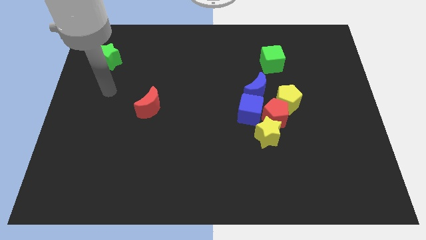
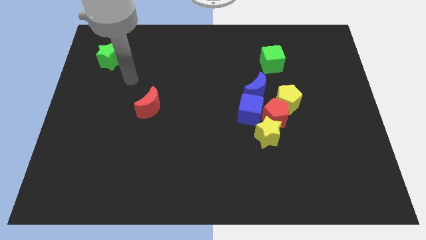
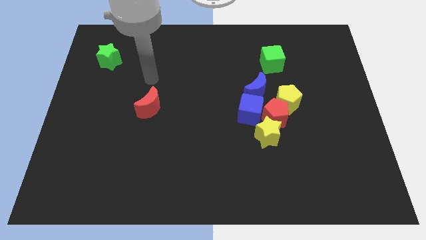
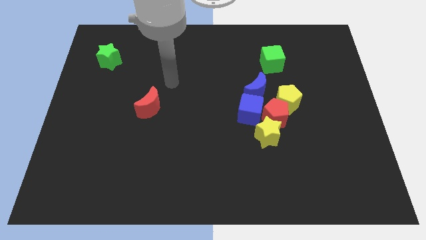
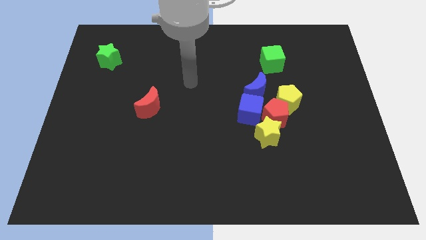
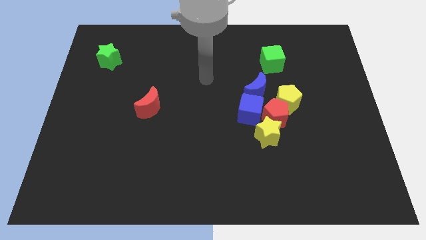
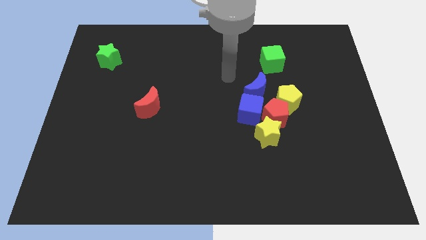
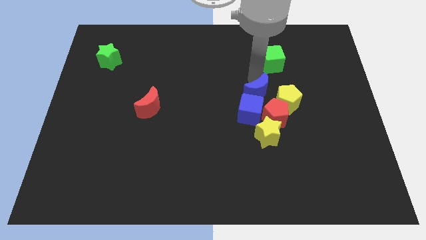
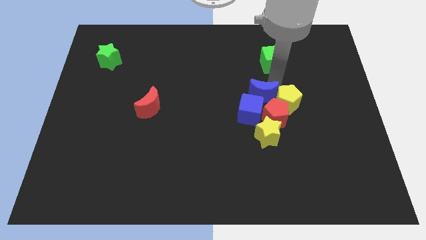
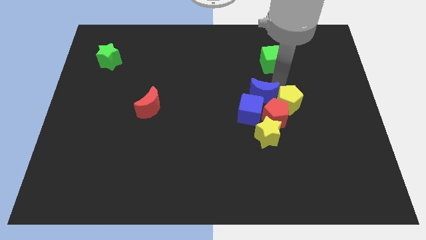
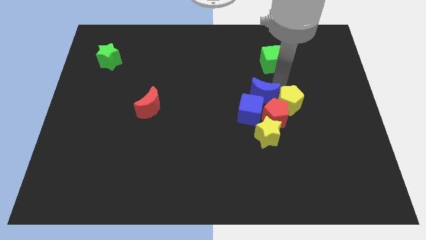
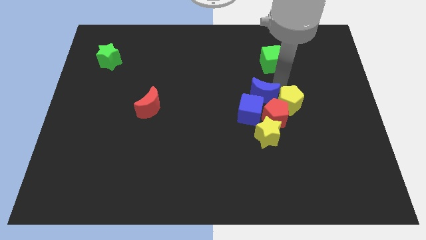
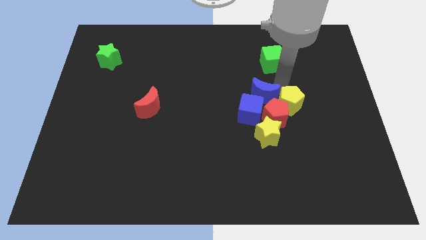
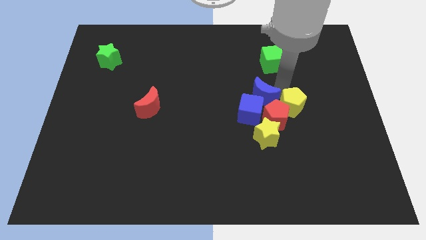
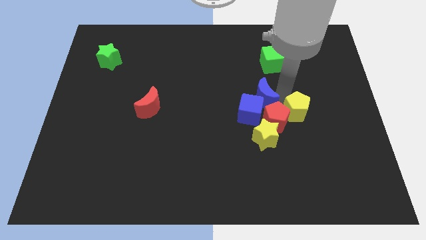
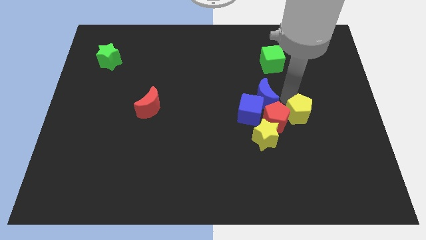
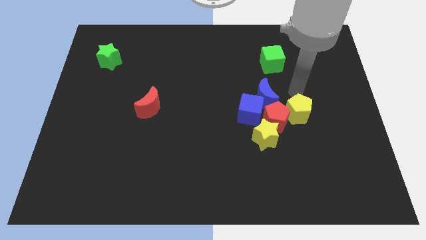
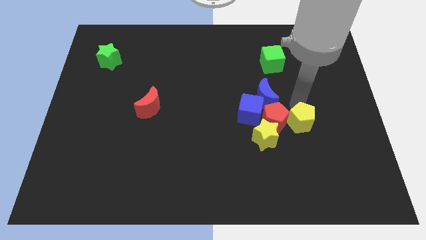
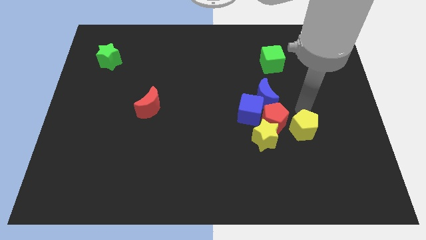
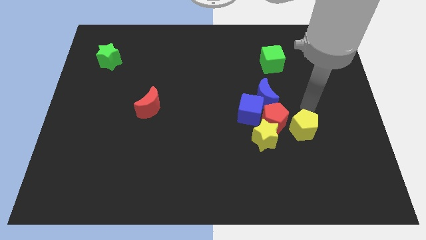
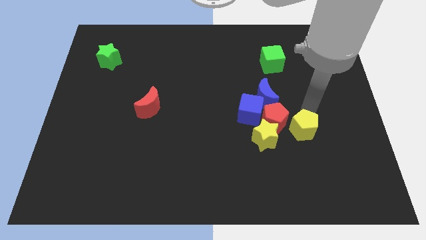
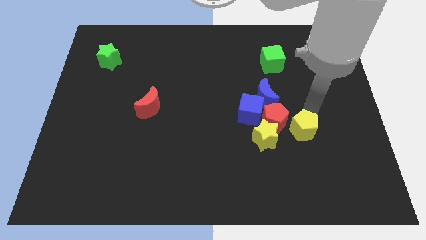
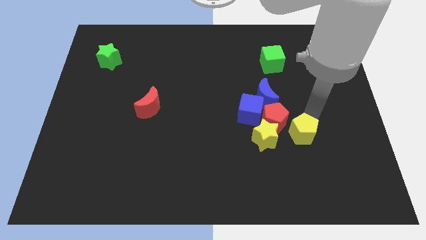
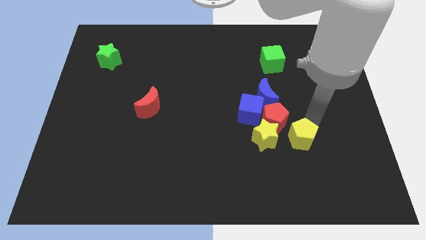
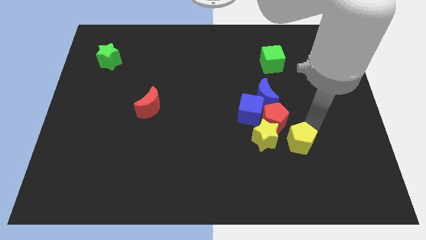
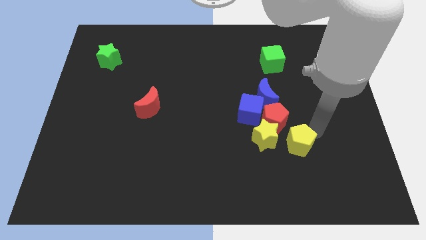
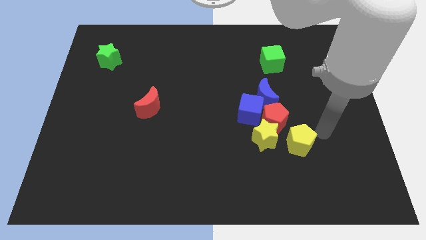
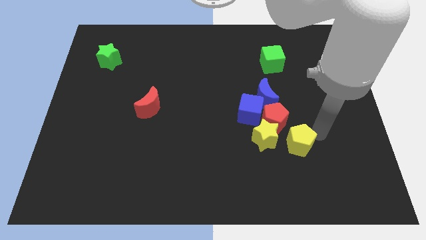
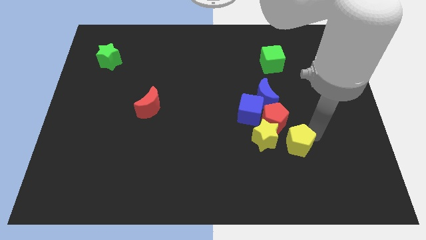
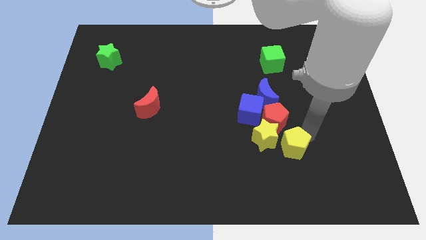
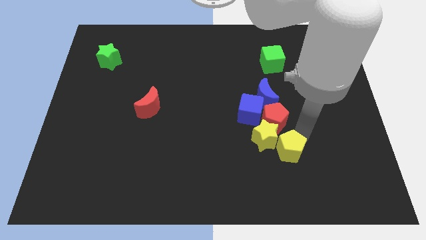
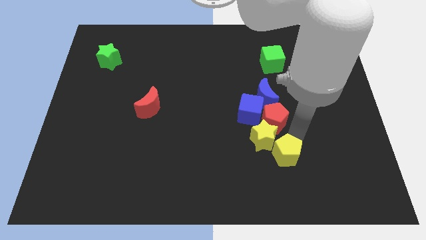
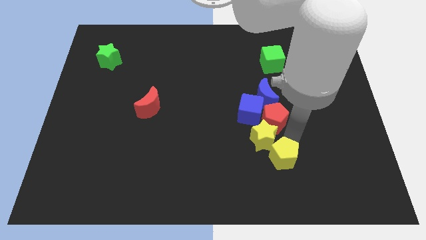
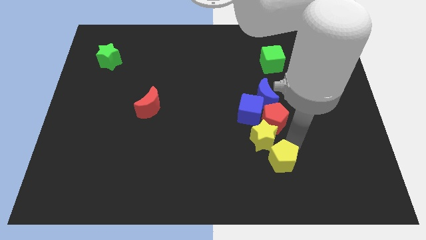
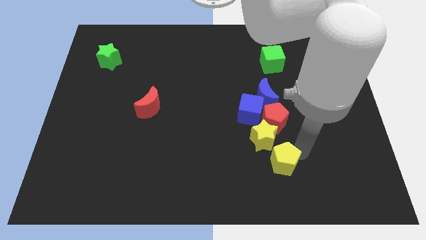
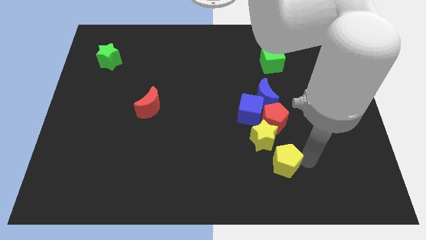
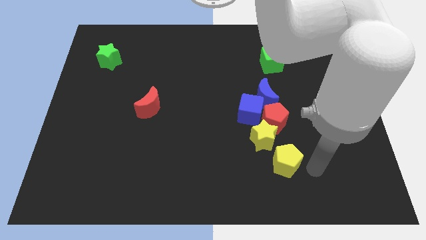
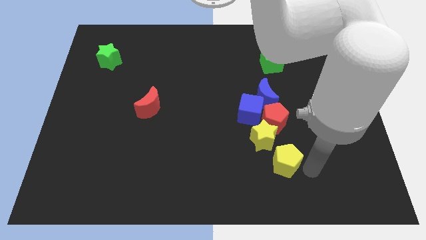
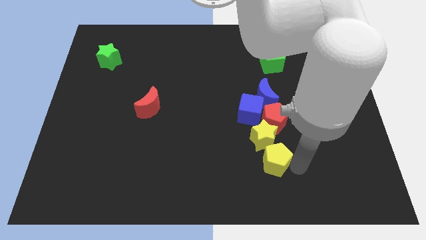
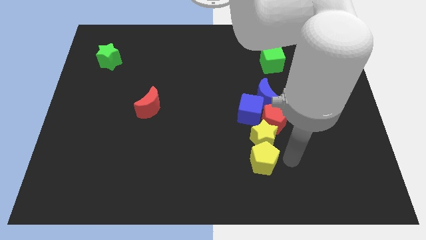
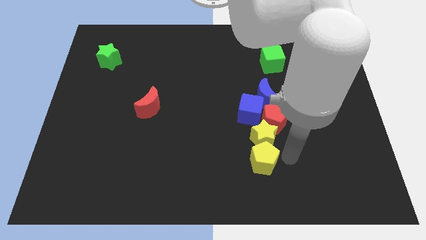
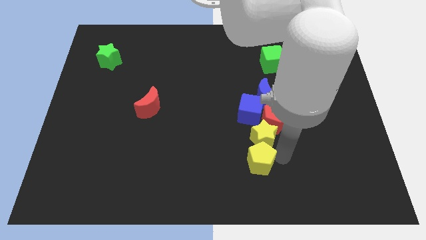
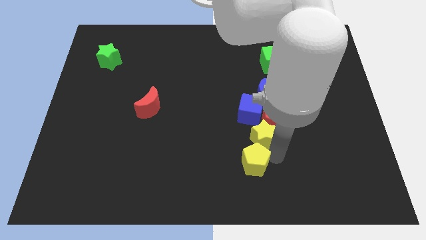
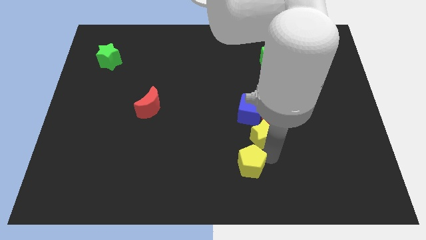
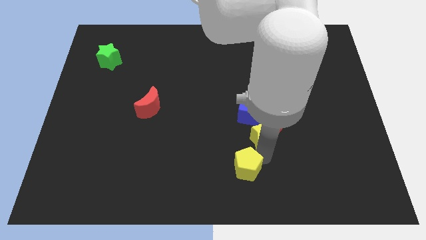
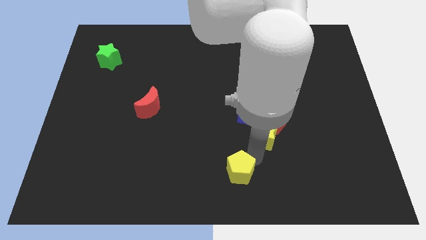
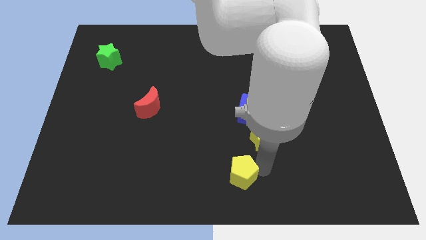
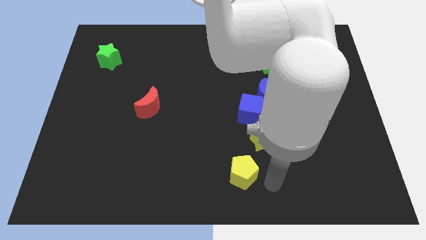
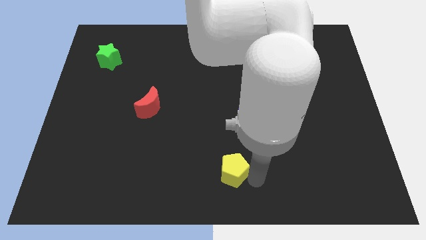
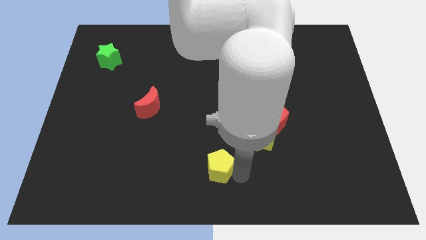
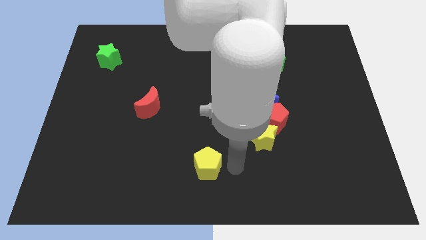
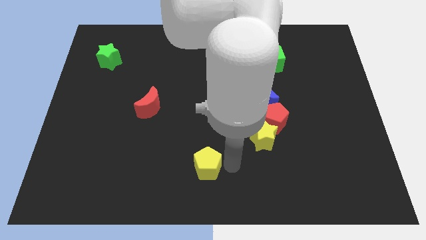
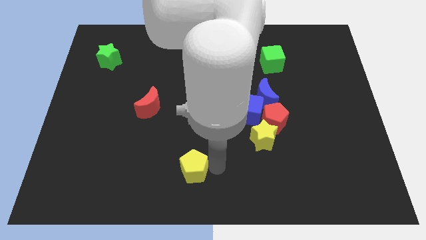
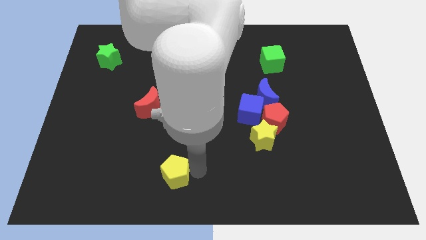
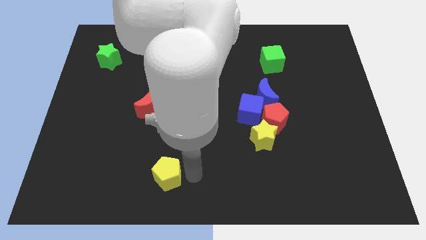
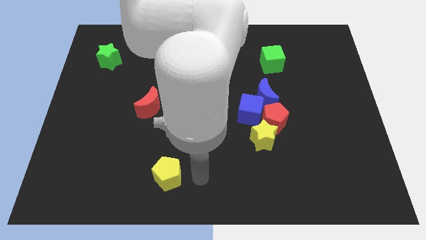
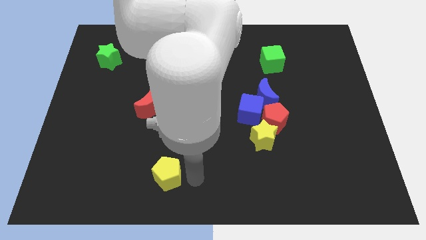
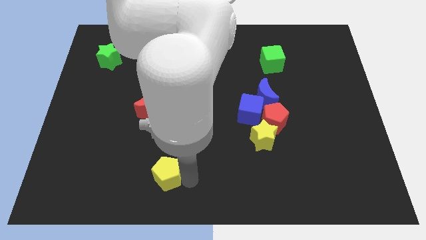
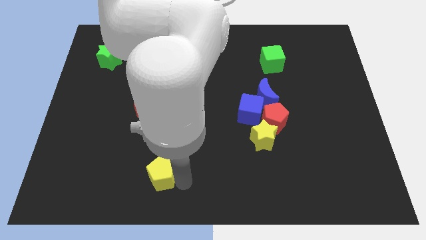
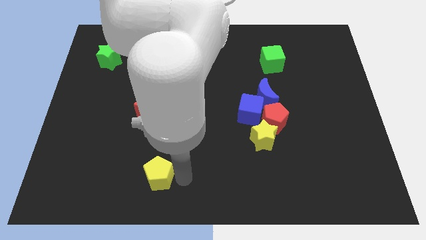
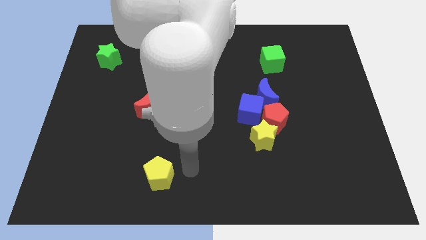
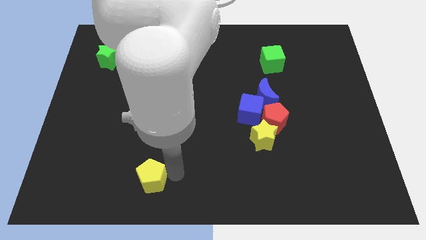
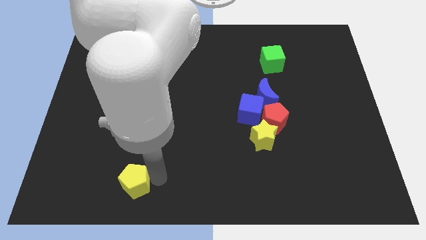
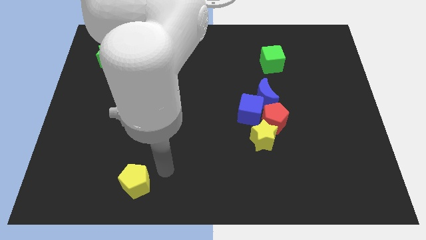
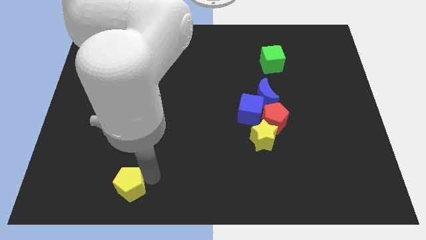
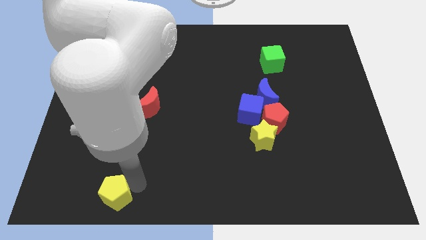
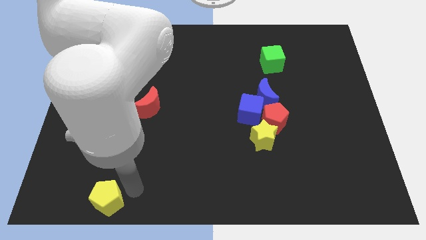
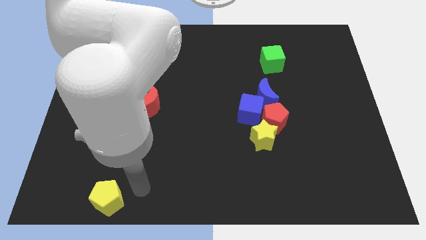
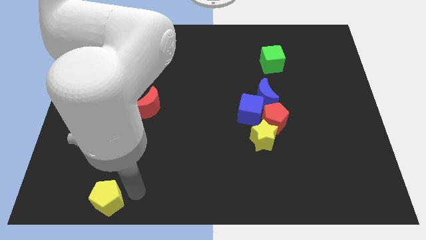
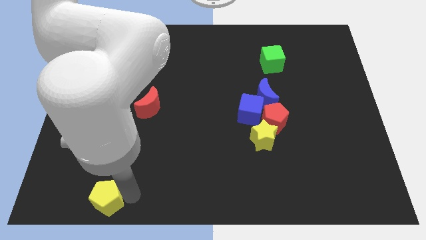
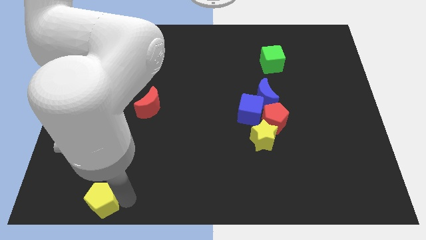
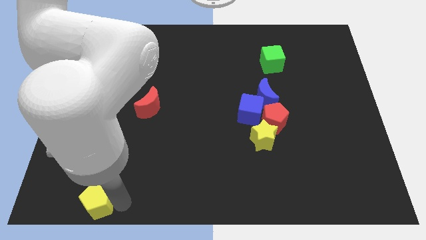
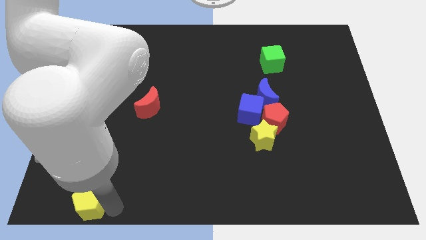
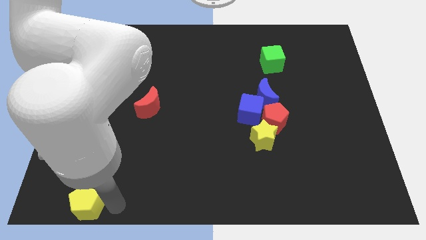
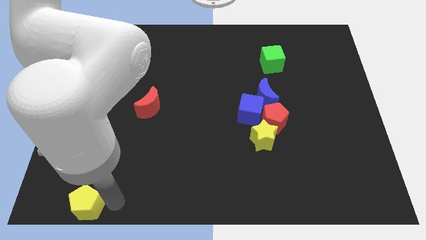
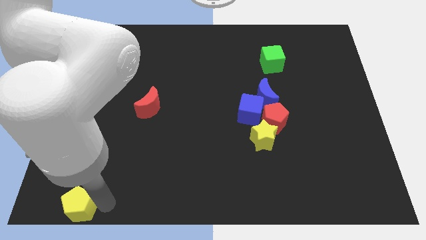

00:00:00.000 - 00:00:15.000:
put the yellow pentagon to the bottom left
